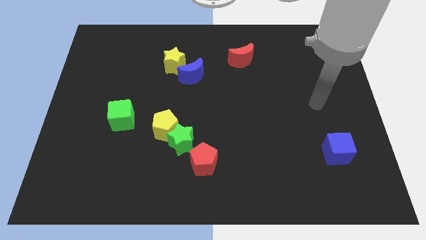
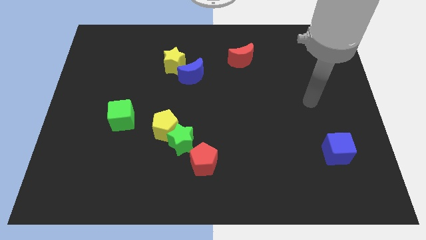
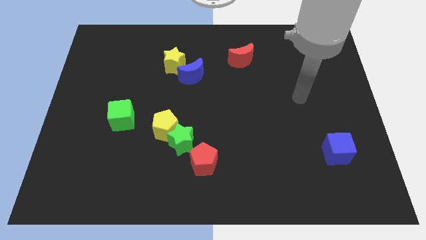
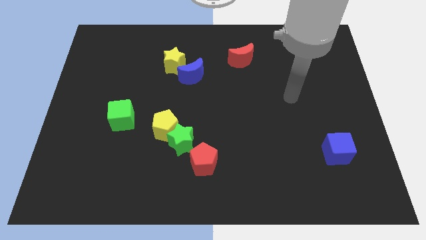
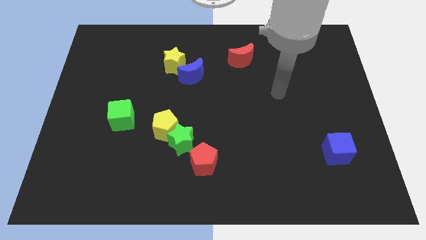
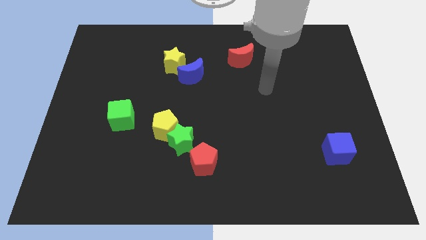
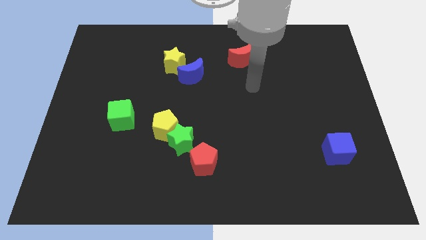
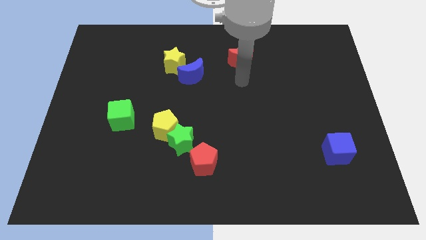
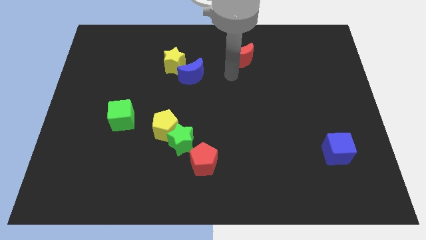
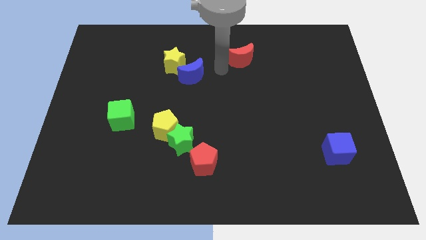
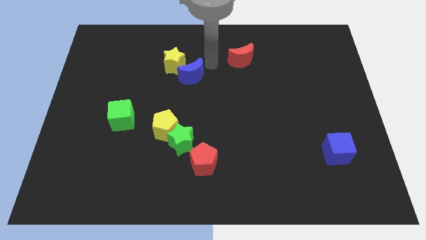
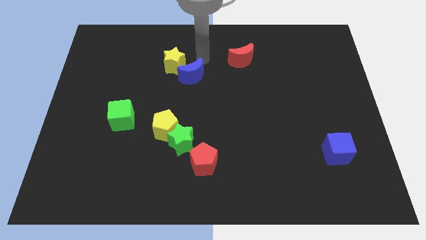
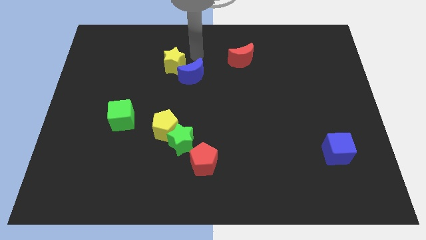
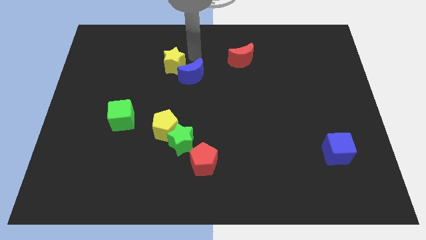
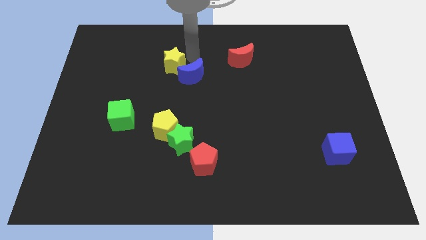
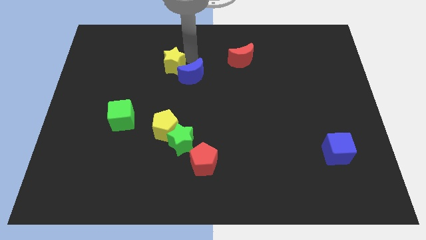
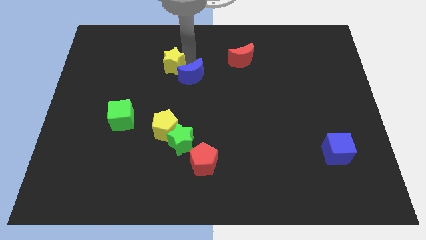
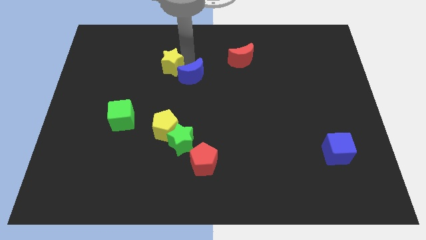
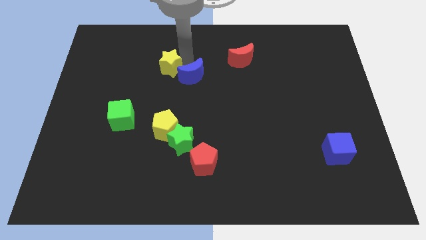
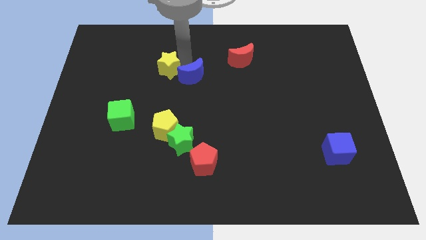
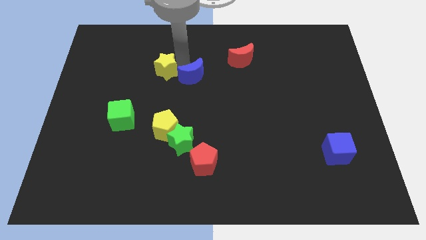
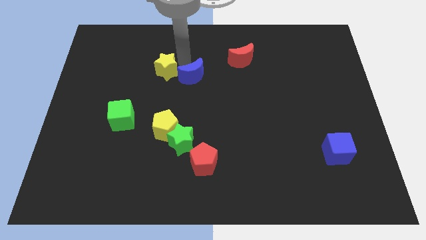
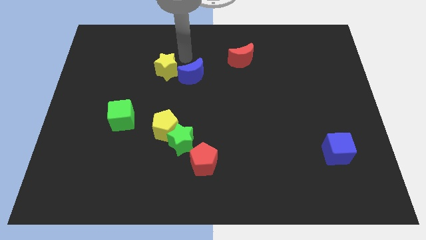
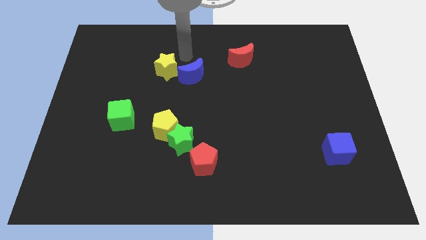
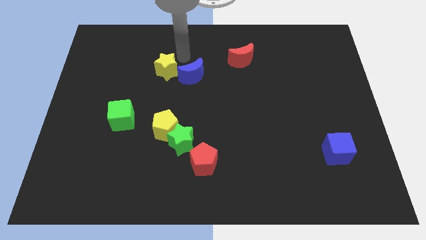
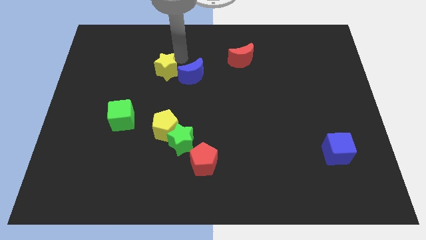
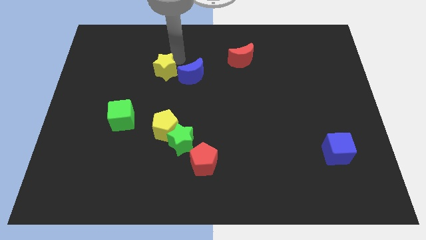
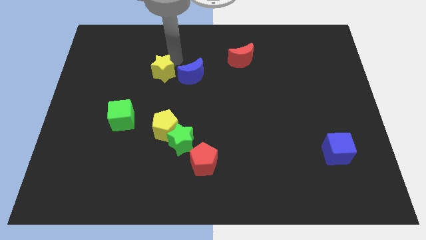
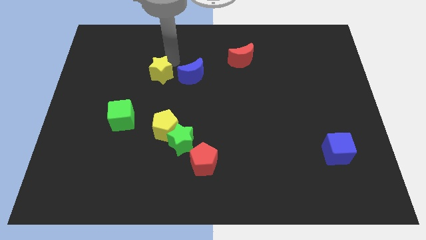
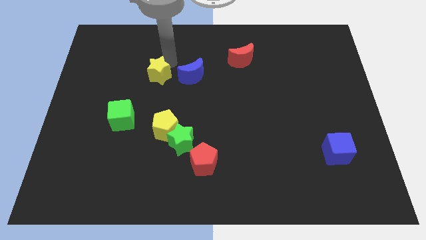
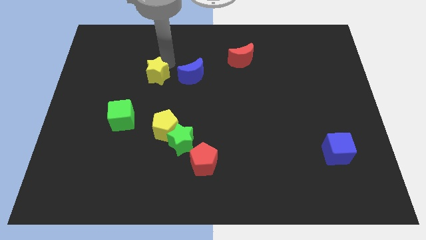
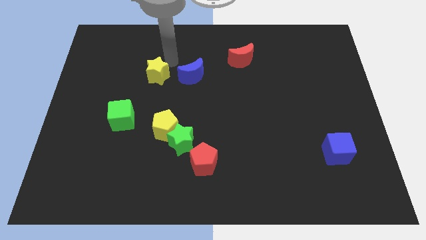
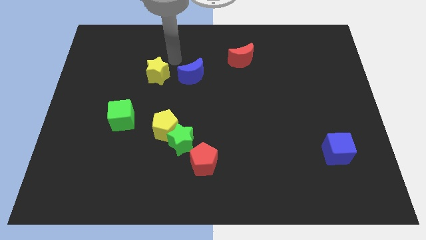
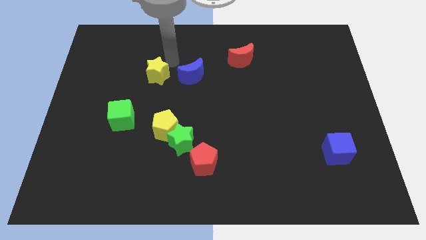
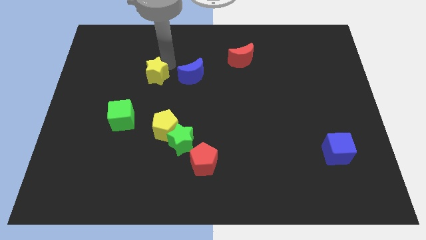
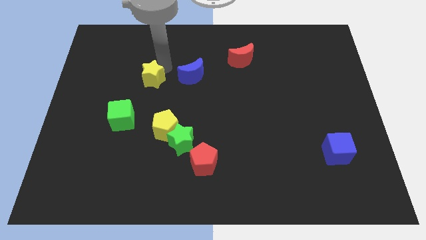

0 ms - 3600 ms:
slightly slide the yellow star downwards and left

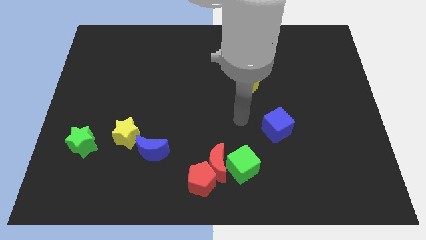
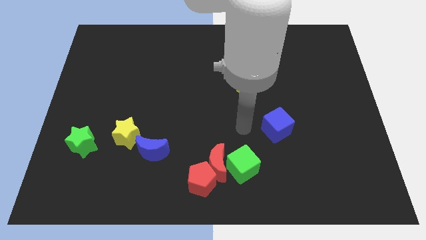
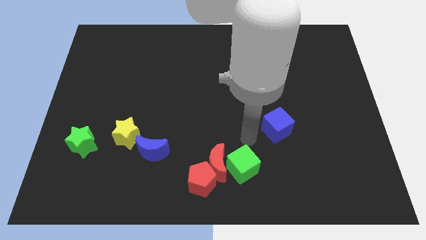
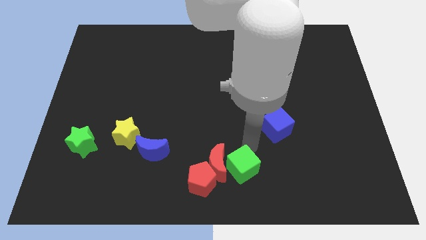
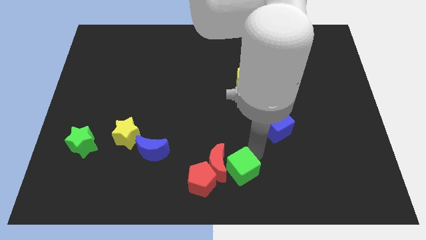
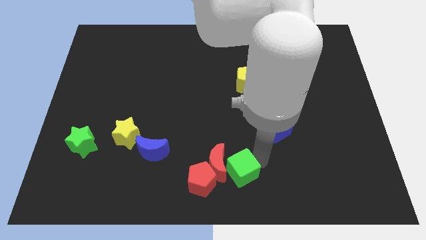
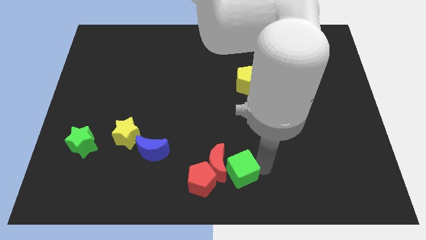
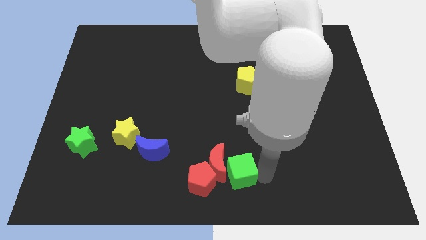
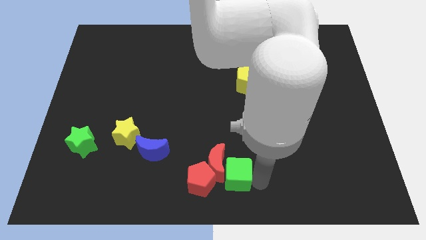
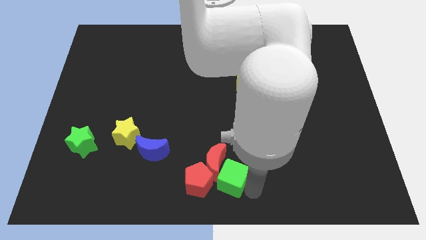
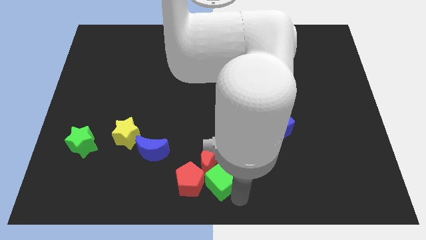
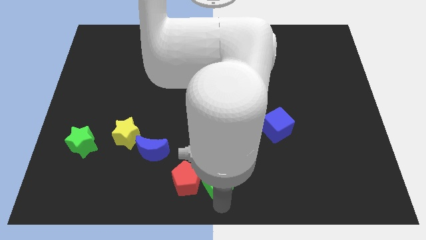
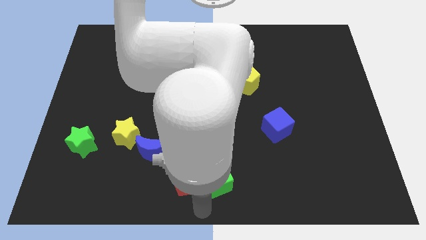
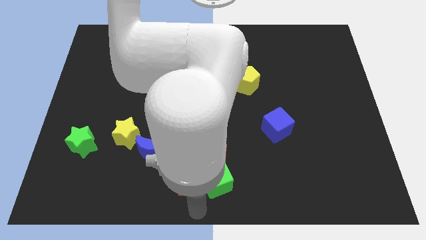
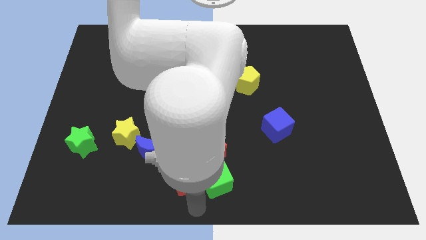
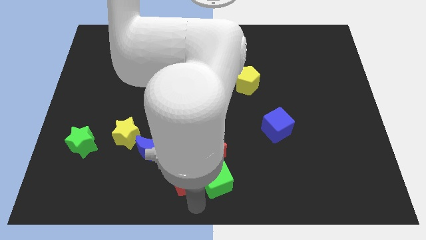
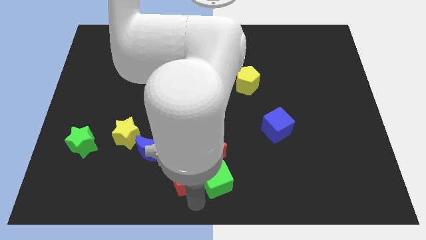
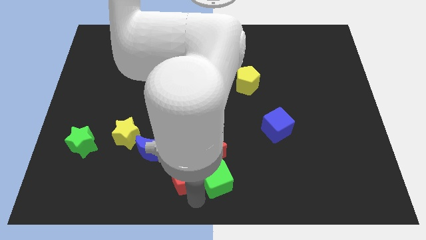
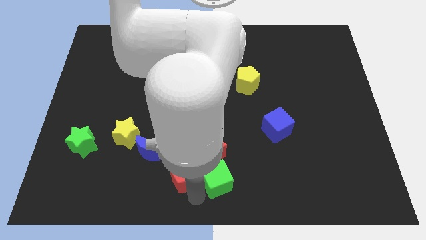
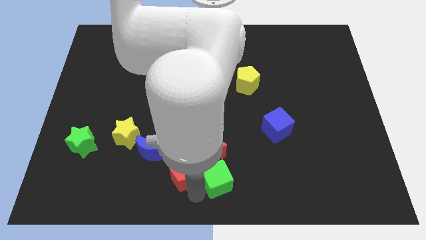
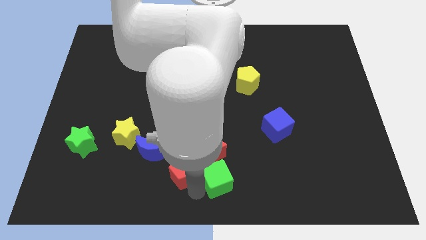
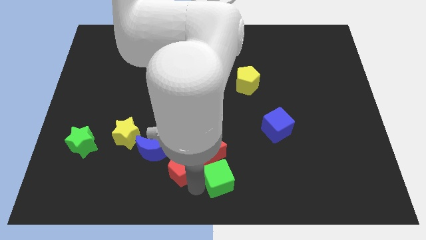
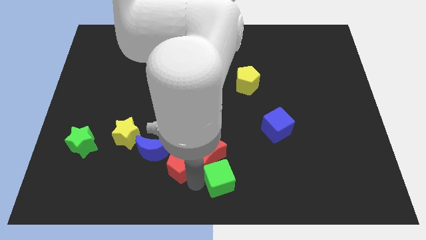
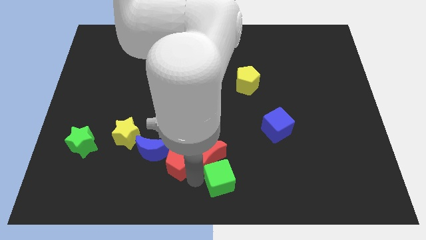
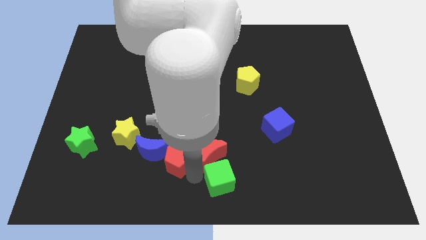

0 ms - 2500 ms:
push the red pentagon up and left a little

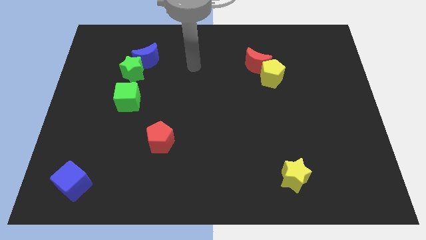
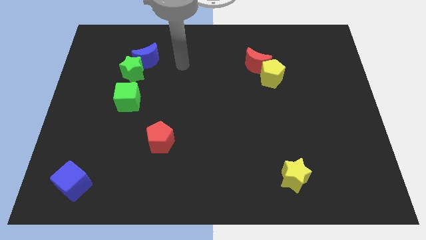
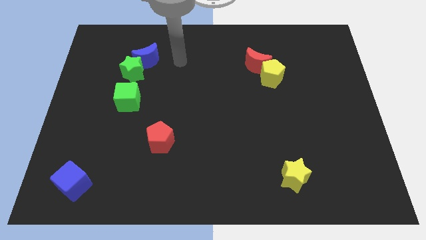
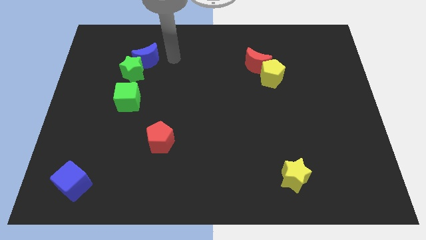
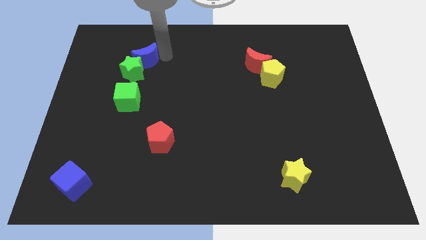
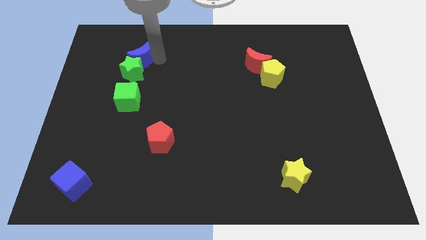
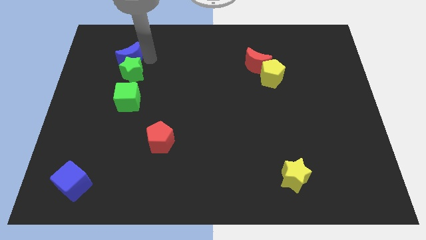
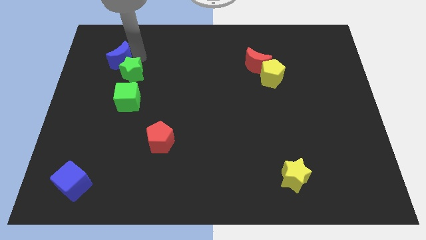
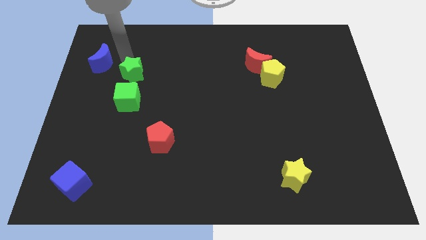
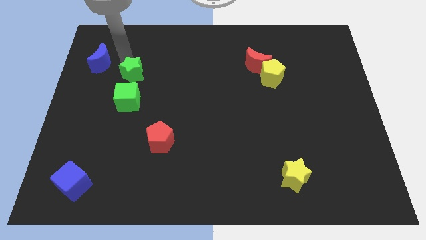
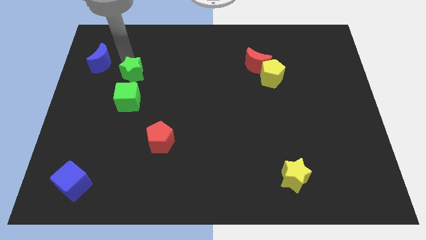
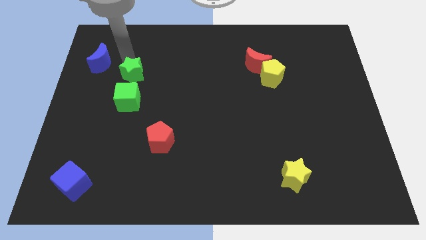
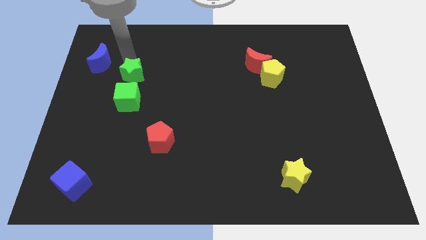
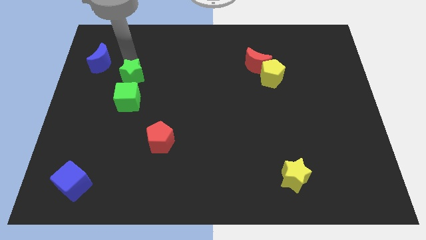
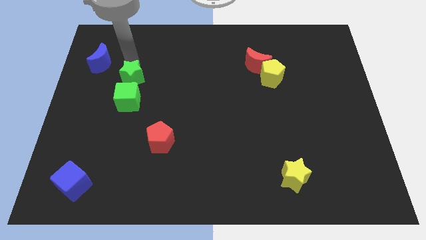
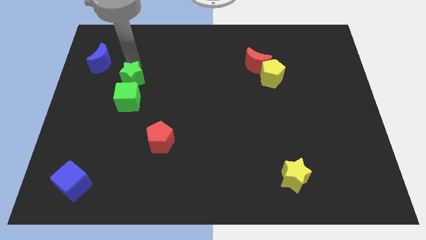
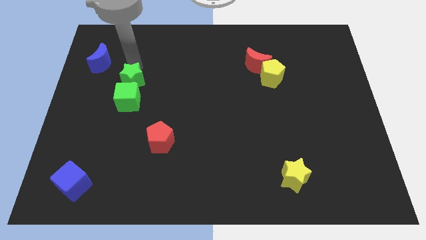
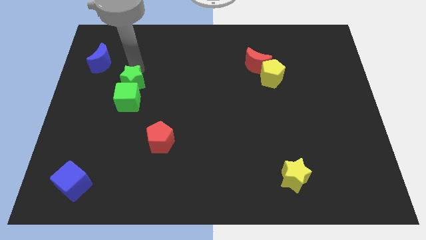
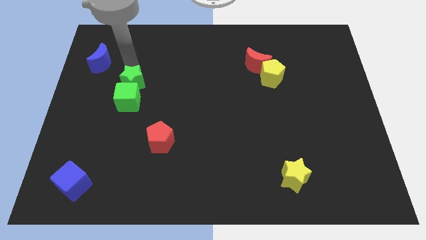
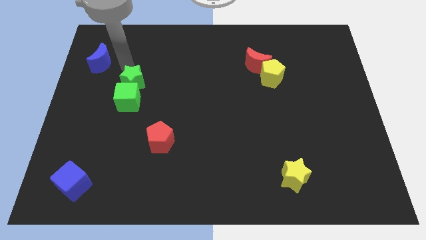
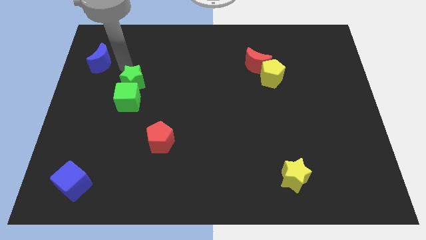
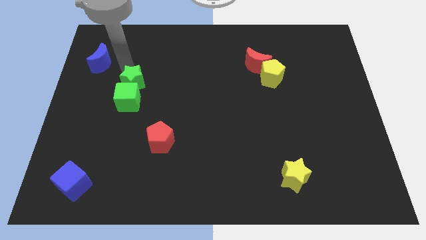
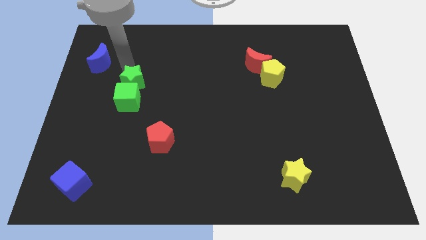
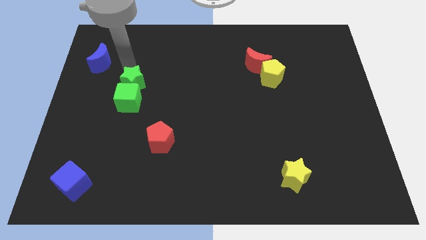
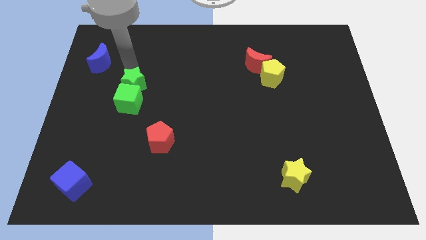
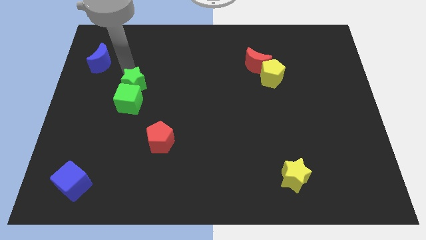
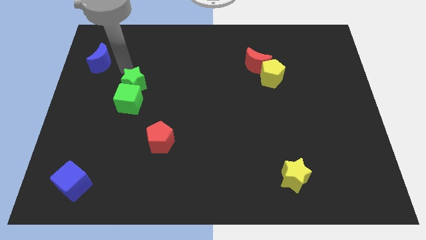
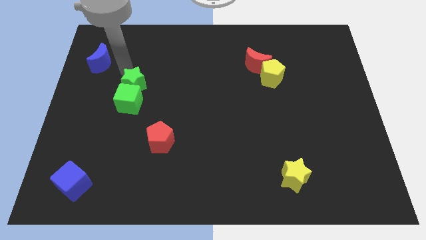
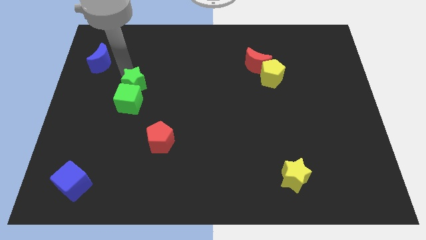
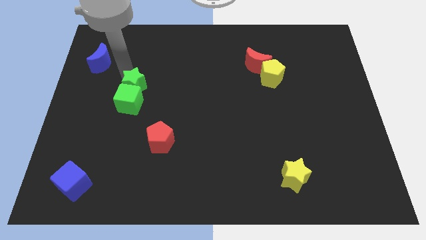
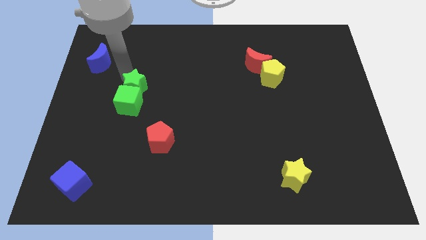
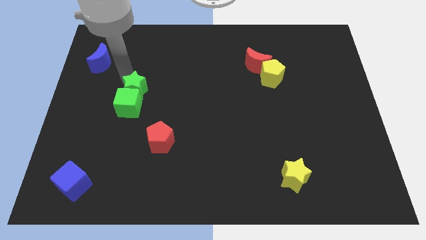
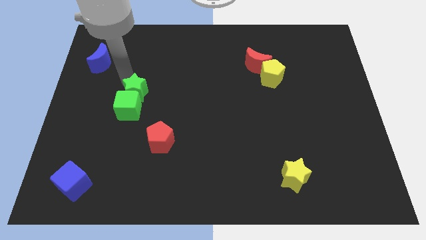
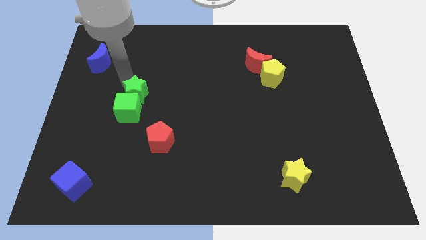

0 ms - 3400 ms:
slide the green star a bit downwards
